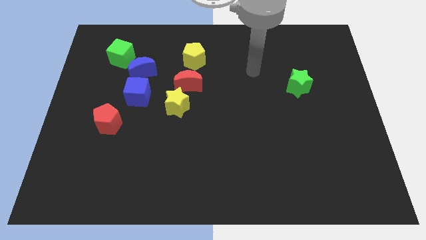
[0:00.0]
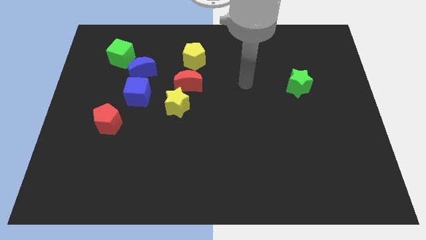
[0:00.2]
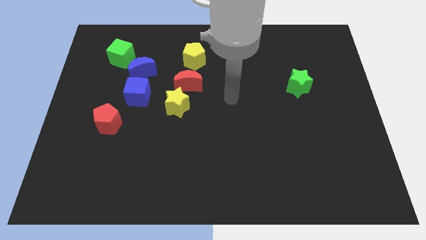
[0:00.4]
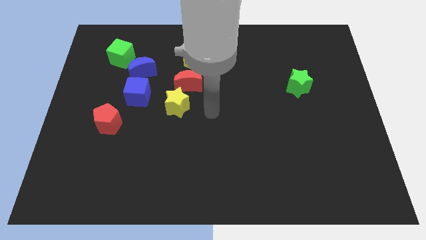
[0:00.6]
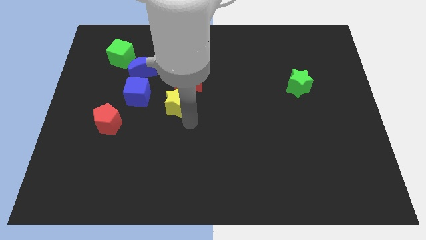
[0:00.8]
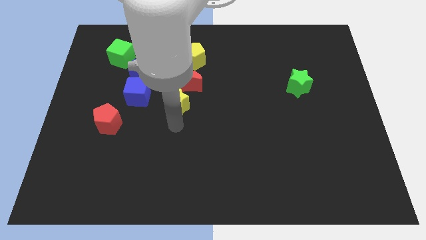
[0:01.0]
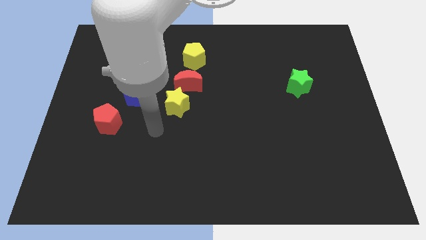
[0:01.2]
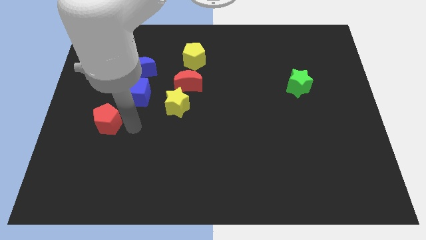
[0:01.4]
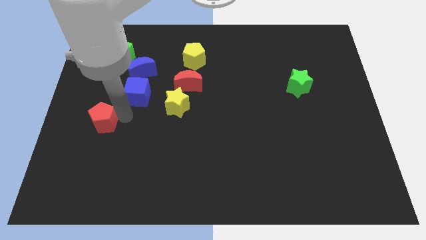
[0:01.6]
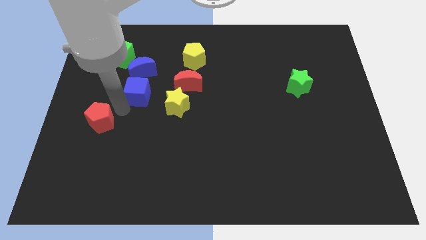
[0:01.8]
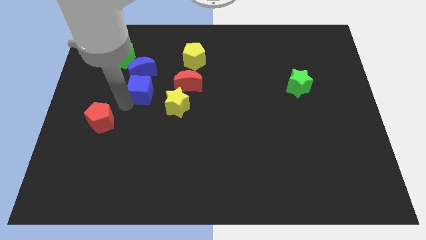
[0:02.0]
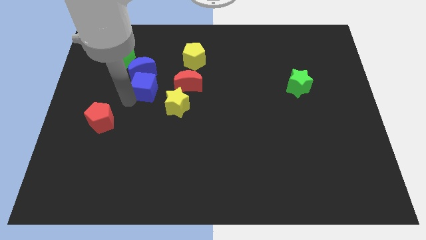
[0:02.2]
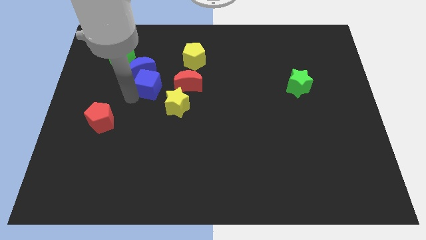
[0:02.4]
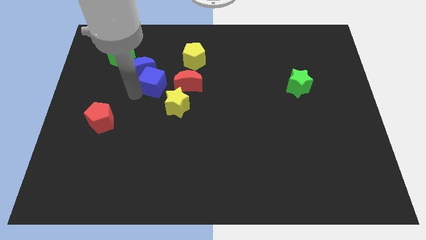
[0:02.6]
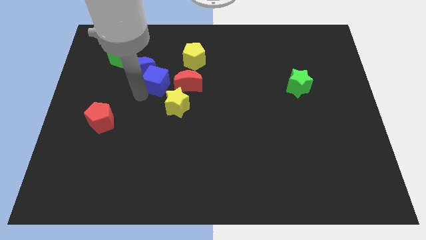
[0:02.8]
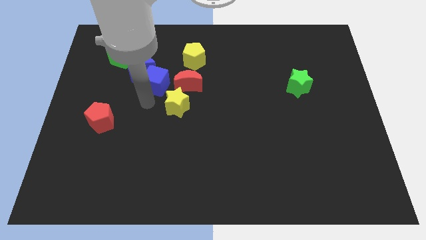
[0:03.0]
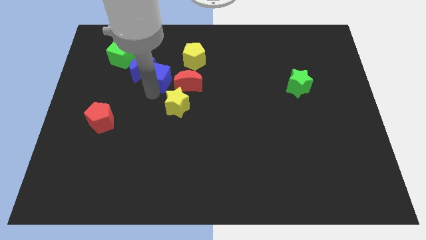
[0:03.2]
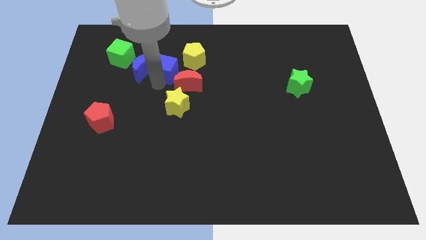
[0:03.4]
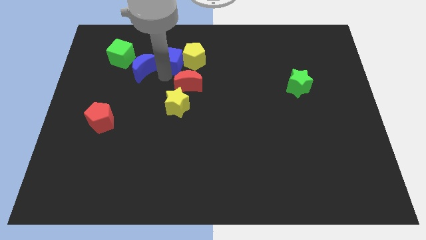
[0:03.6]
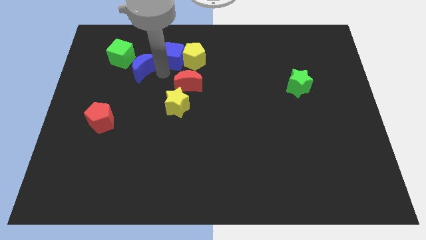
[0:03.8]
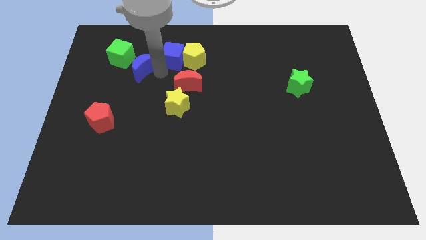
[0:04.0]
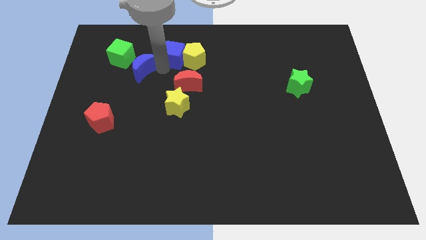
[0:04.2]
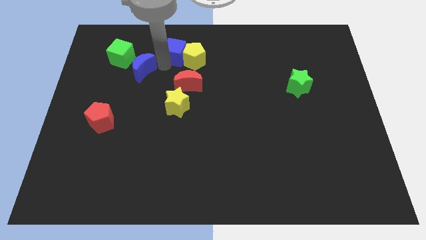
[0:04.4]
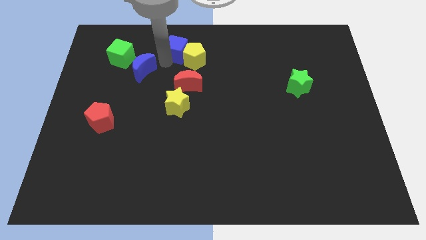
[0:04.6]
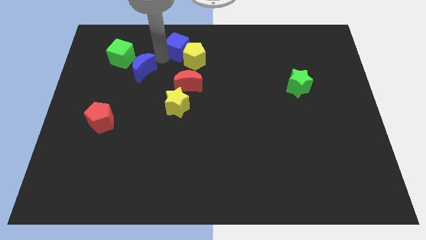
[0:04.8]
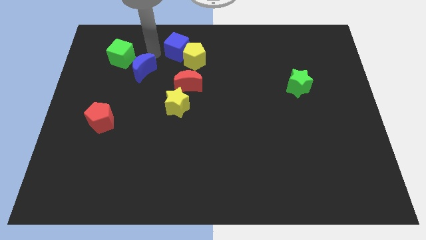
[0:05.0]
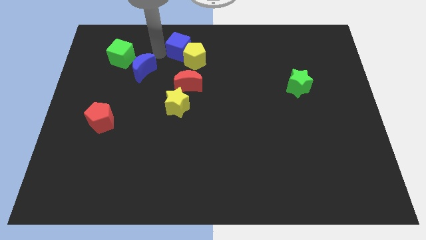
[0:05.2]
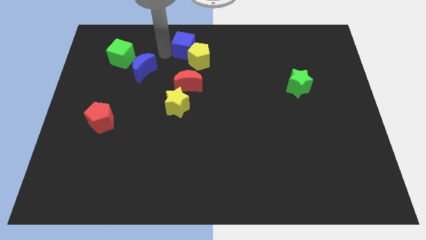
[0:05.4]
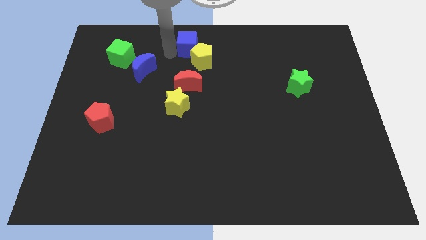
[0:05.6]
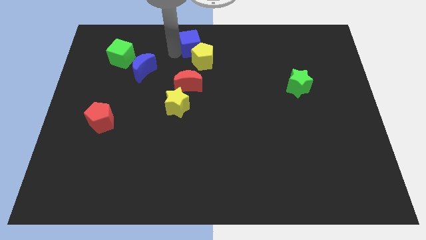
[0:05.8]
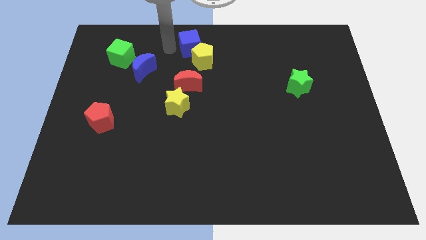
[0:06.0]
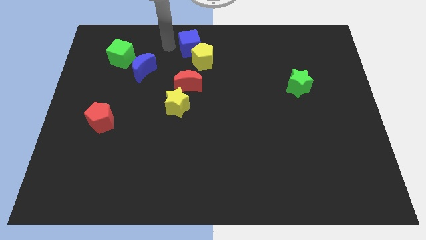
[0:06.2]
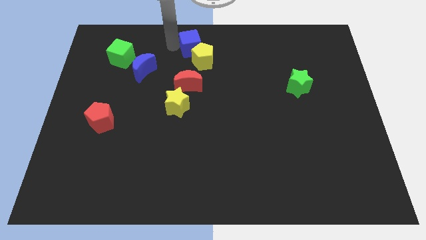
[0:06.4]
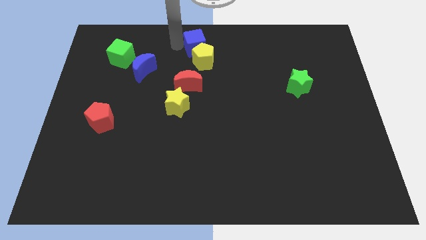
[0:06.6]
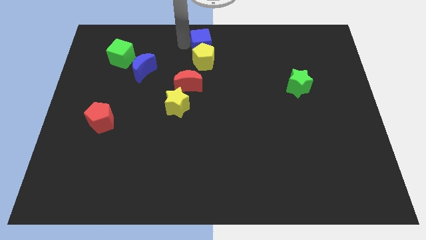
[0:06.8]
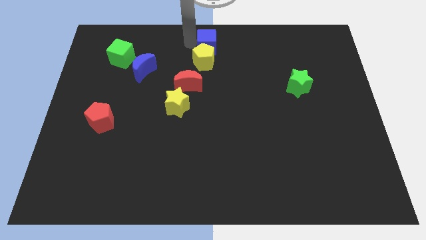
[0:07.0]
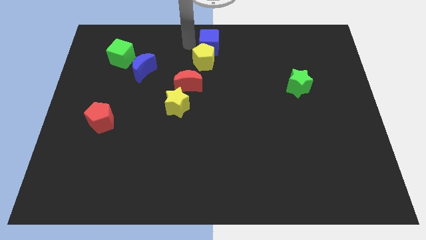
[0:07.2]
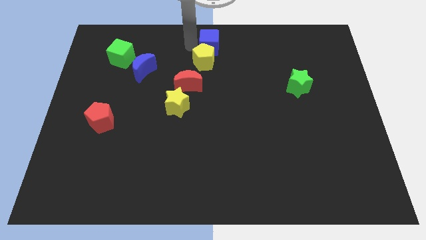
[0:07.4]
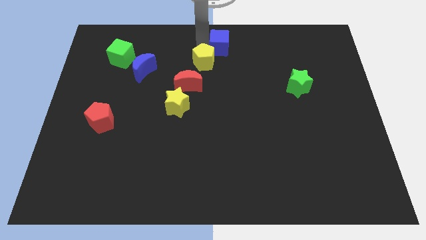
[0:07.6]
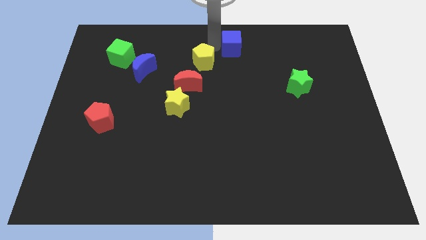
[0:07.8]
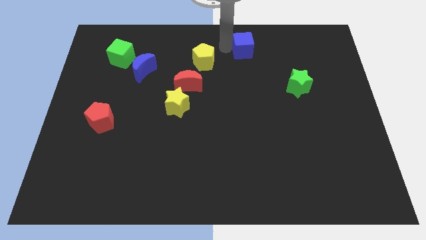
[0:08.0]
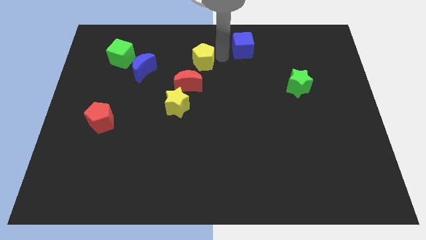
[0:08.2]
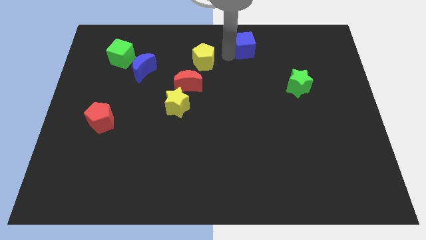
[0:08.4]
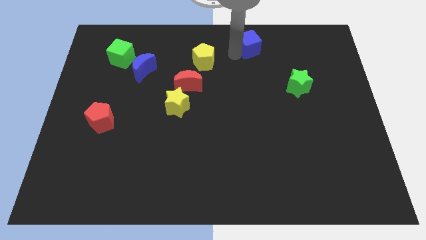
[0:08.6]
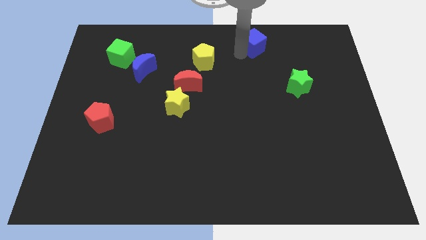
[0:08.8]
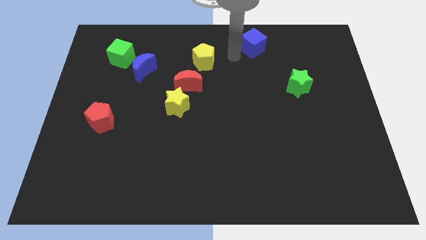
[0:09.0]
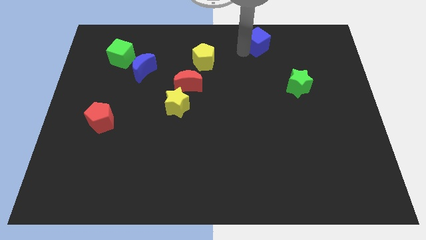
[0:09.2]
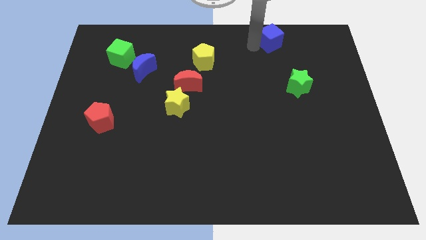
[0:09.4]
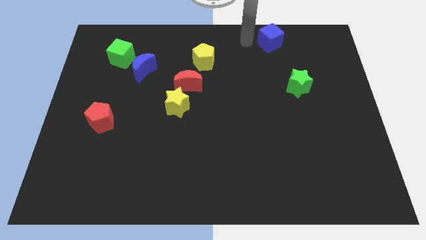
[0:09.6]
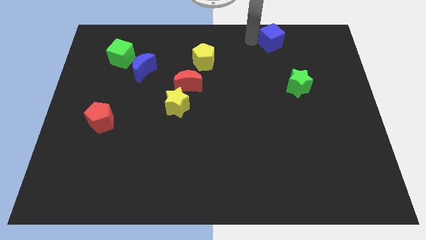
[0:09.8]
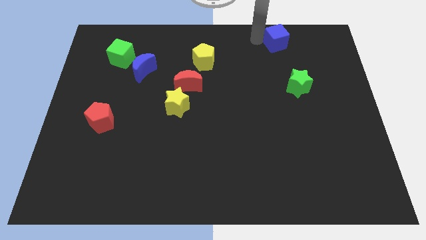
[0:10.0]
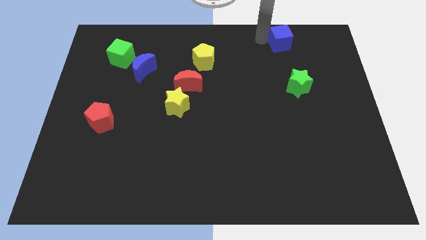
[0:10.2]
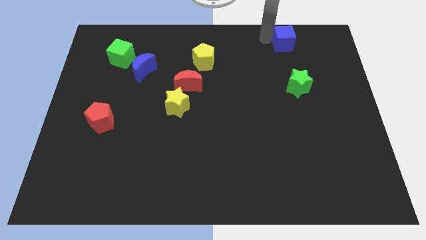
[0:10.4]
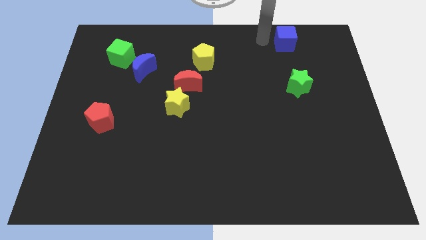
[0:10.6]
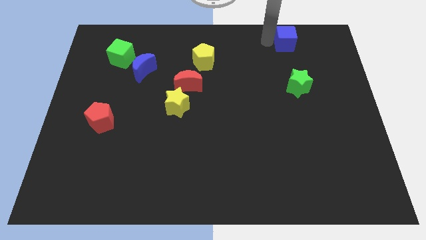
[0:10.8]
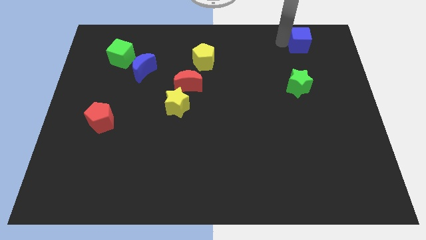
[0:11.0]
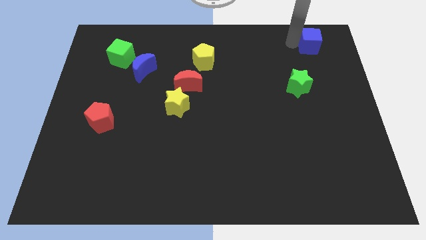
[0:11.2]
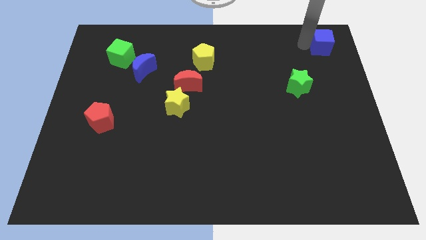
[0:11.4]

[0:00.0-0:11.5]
slide the blue cube to the upper right corner
